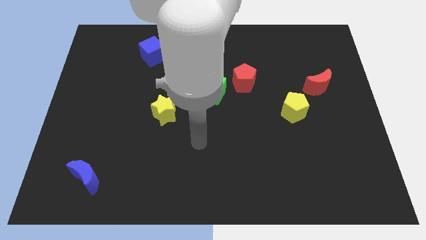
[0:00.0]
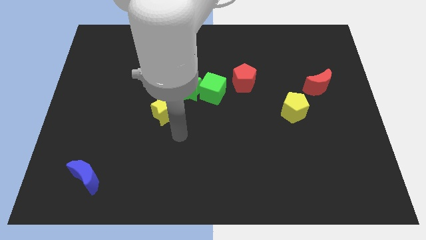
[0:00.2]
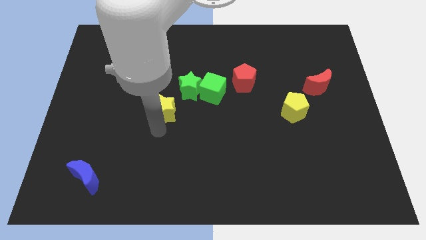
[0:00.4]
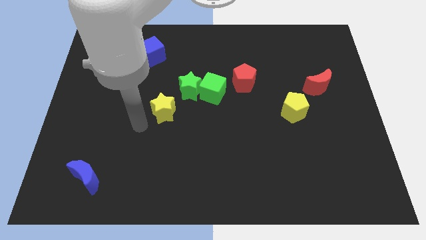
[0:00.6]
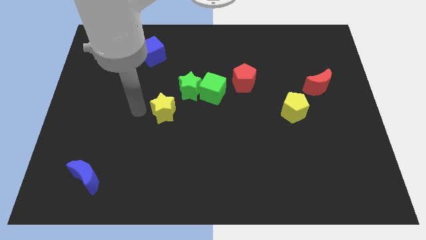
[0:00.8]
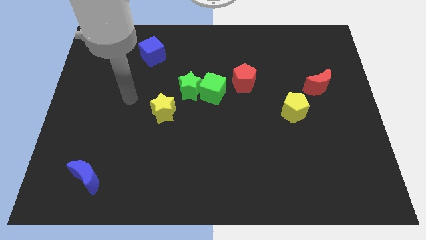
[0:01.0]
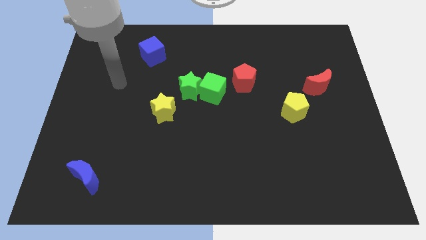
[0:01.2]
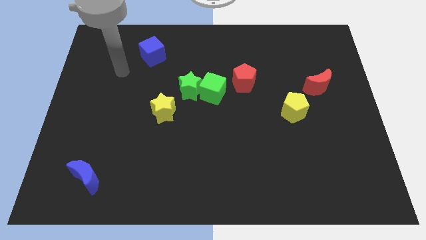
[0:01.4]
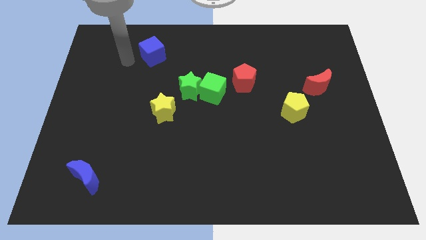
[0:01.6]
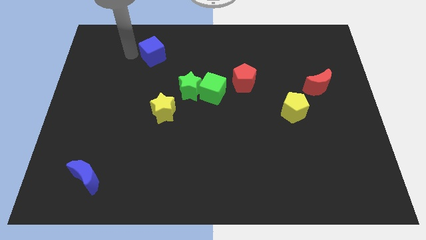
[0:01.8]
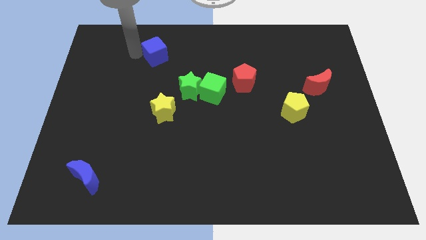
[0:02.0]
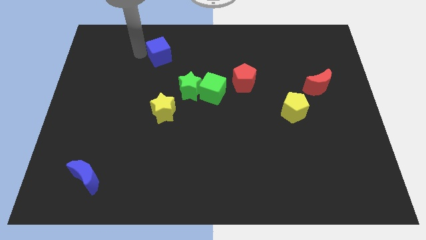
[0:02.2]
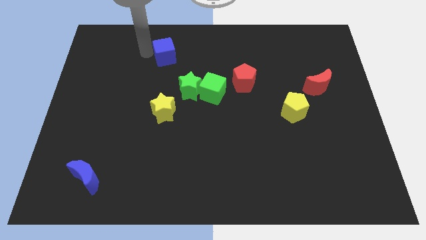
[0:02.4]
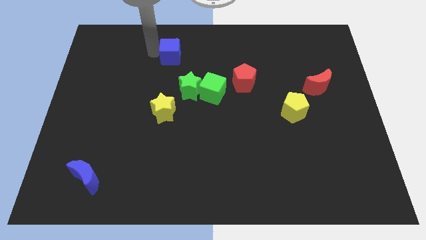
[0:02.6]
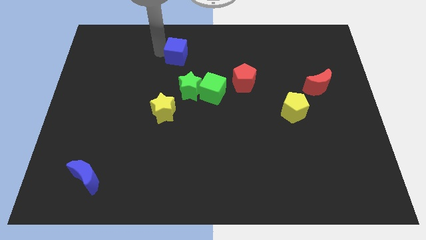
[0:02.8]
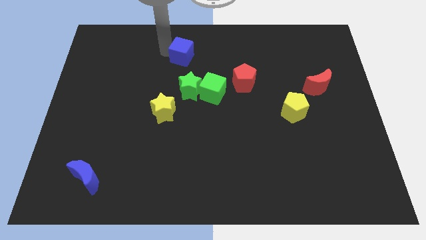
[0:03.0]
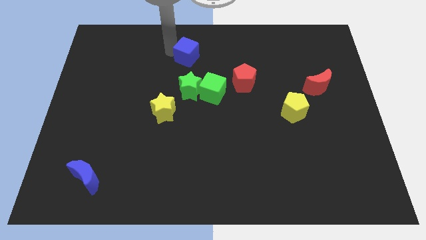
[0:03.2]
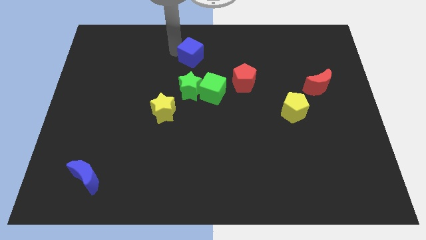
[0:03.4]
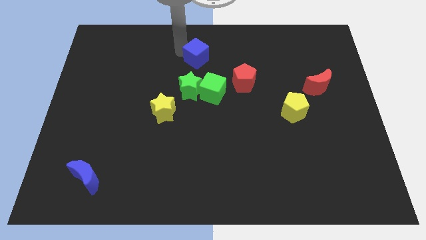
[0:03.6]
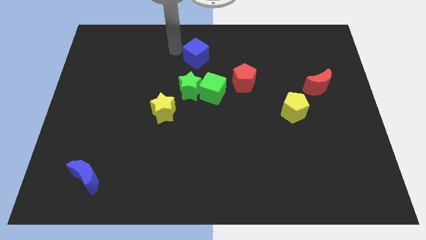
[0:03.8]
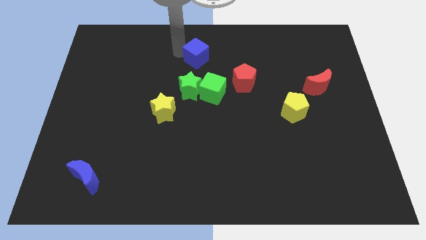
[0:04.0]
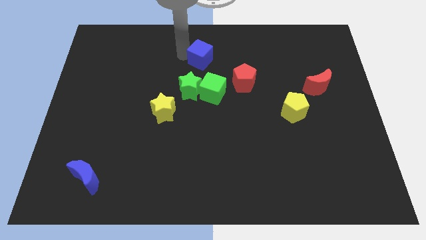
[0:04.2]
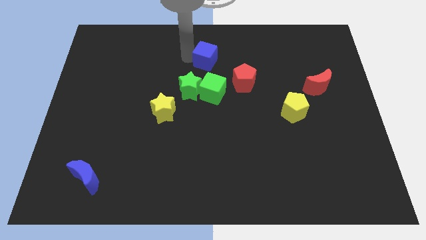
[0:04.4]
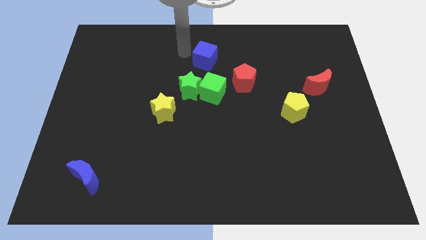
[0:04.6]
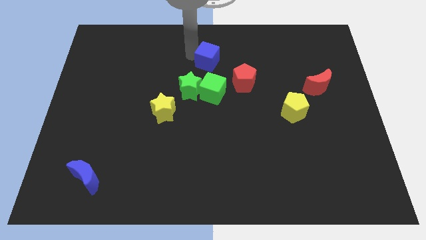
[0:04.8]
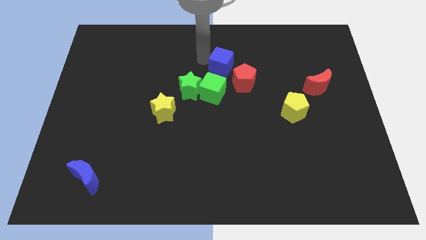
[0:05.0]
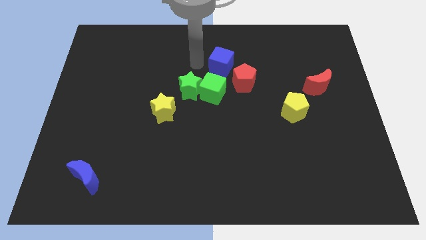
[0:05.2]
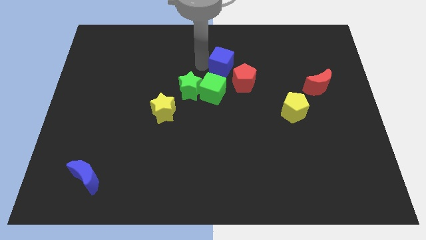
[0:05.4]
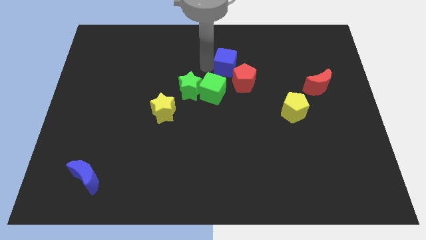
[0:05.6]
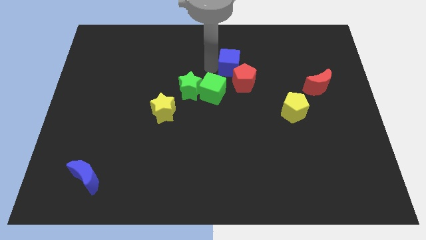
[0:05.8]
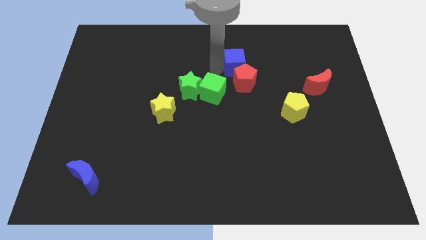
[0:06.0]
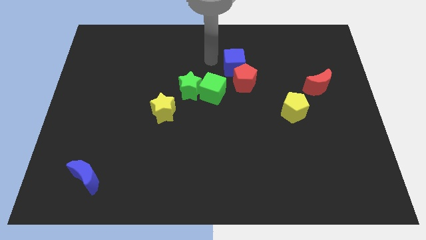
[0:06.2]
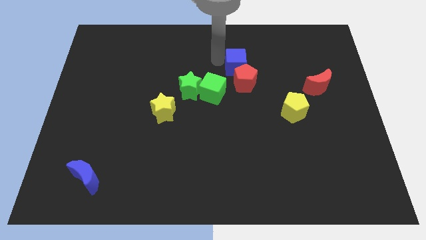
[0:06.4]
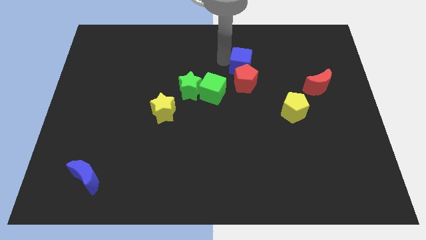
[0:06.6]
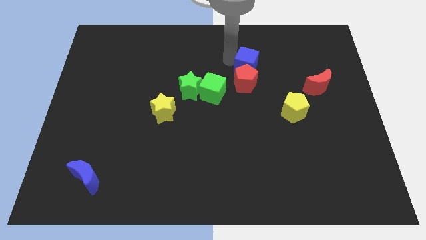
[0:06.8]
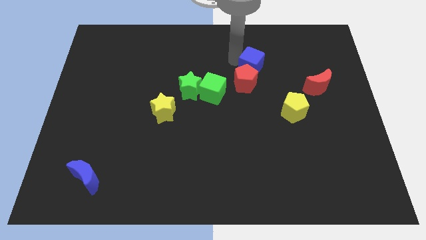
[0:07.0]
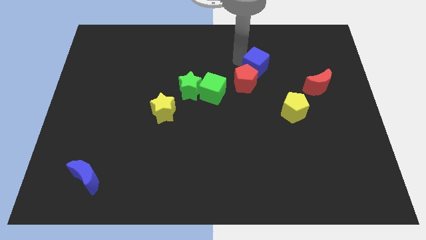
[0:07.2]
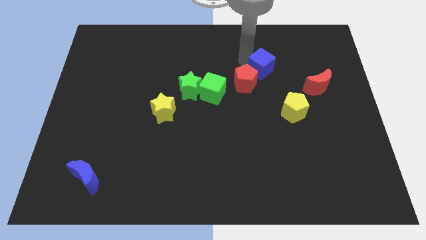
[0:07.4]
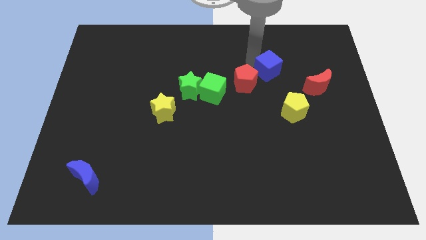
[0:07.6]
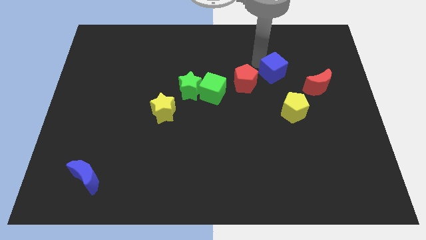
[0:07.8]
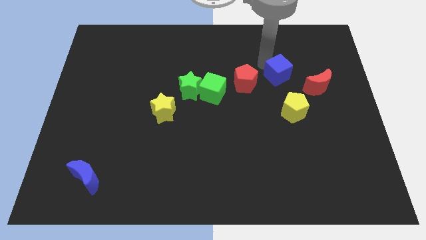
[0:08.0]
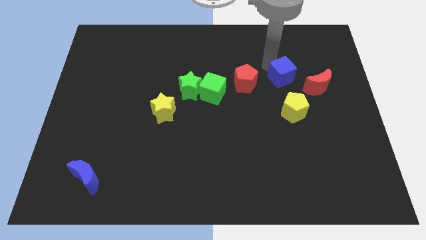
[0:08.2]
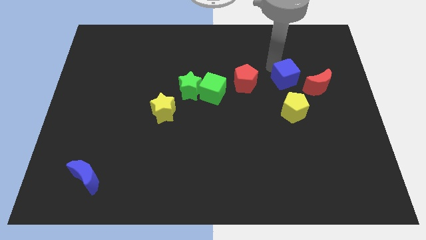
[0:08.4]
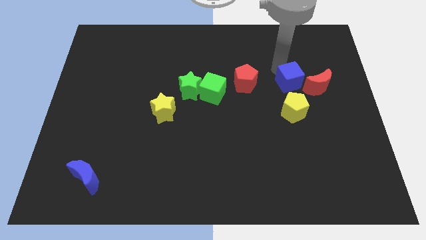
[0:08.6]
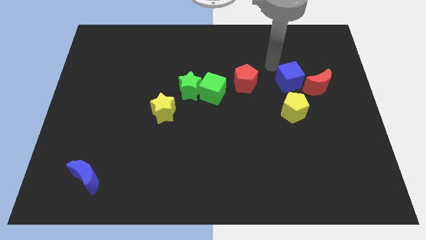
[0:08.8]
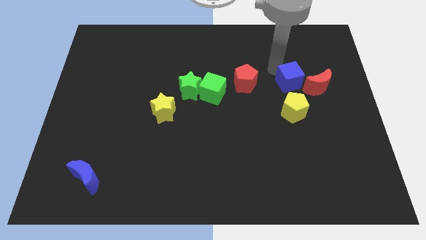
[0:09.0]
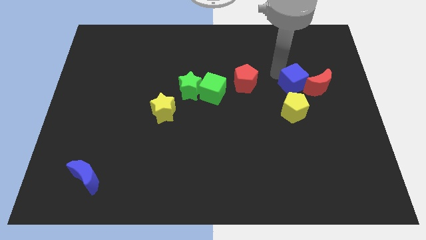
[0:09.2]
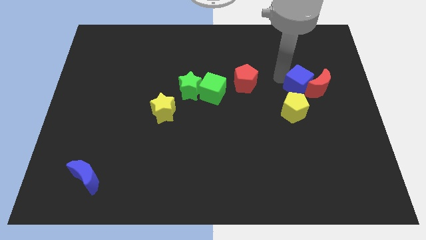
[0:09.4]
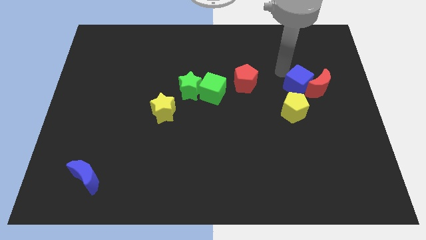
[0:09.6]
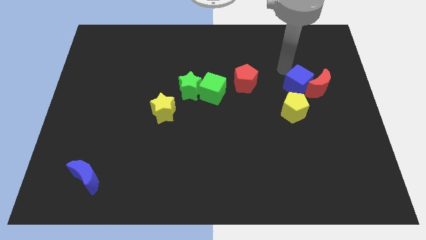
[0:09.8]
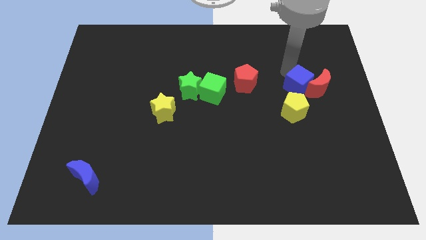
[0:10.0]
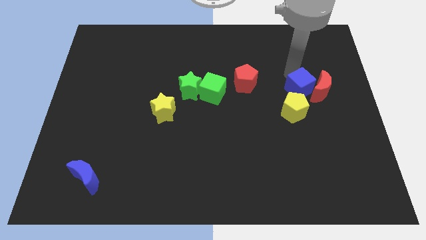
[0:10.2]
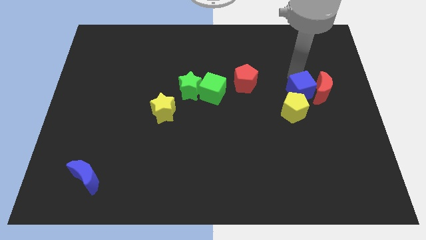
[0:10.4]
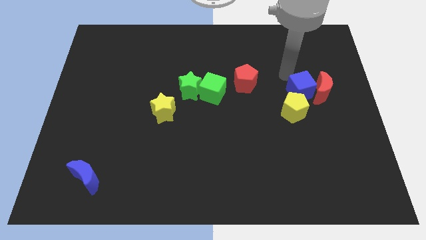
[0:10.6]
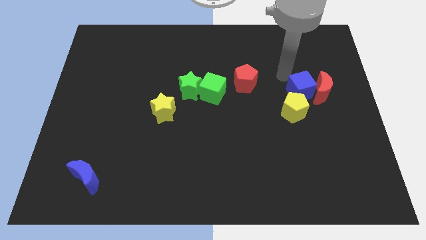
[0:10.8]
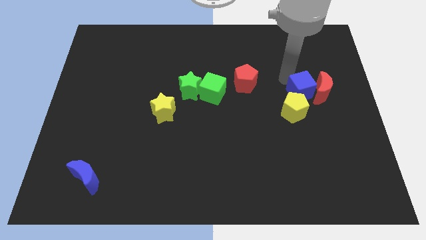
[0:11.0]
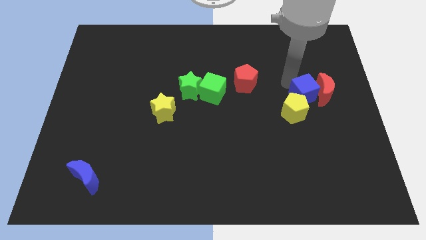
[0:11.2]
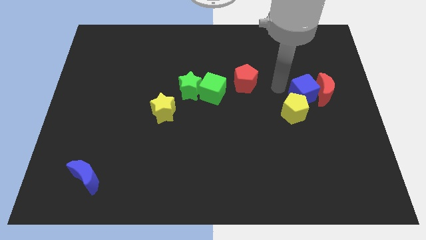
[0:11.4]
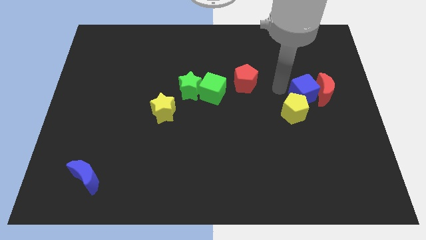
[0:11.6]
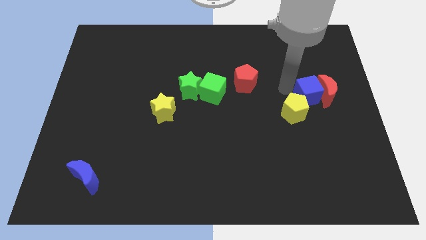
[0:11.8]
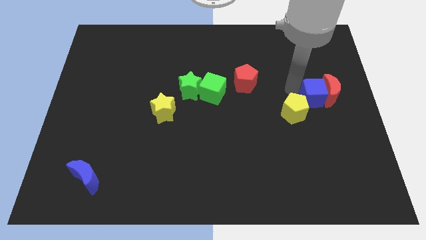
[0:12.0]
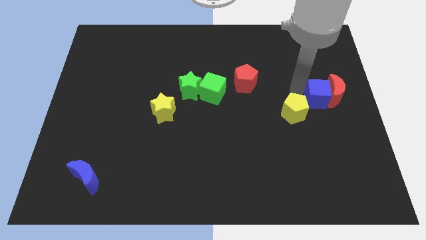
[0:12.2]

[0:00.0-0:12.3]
move the blue cube to the right side
